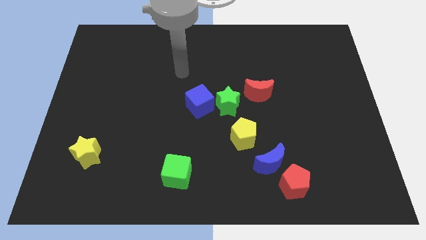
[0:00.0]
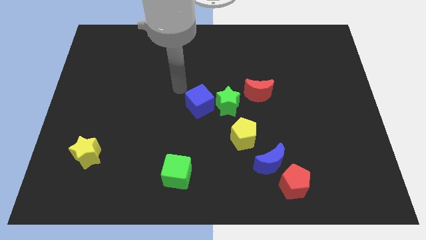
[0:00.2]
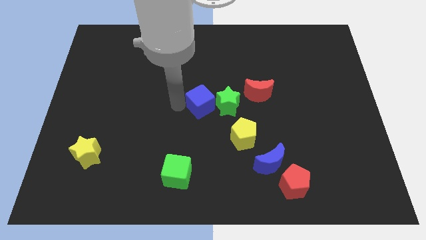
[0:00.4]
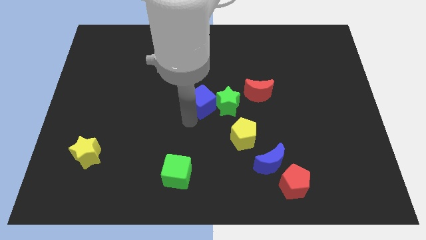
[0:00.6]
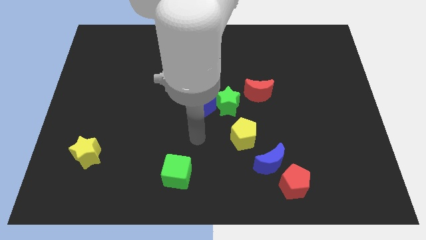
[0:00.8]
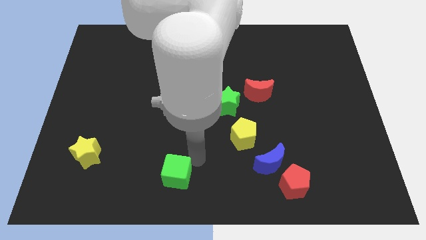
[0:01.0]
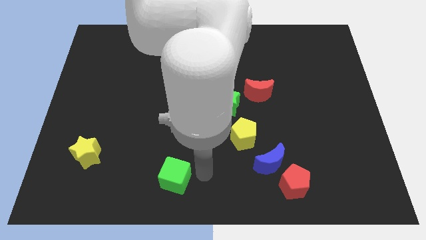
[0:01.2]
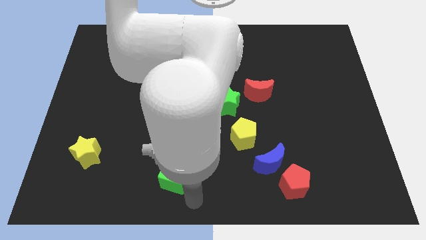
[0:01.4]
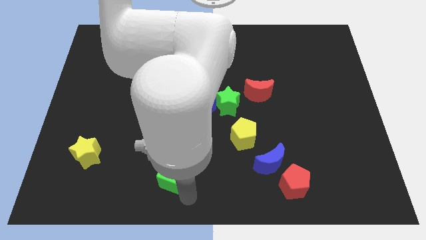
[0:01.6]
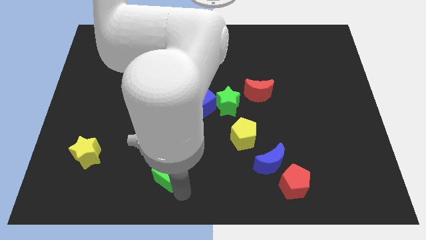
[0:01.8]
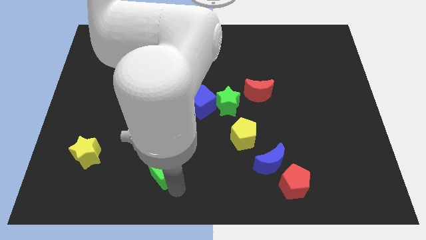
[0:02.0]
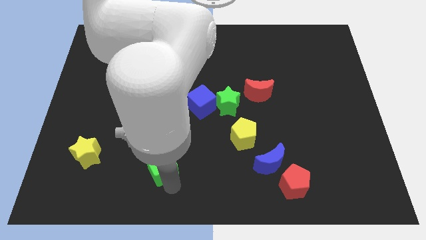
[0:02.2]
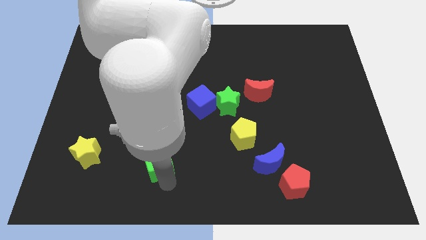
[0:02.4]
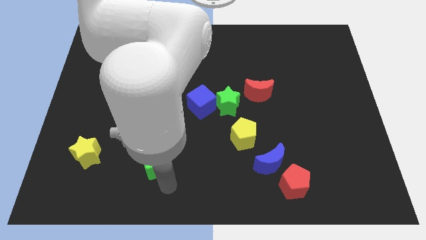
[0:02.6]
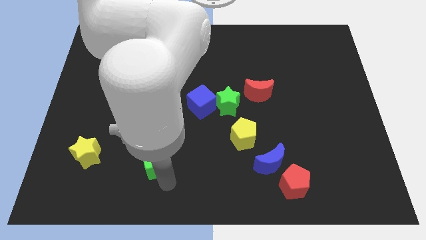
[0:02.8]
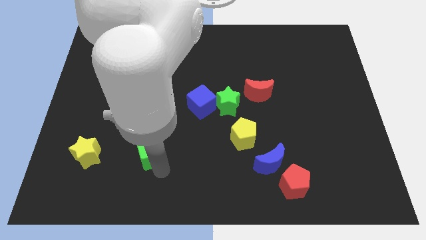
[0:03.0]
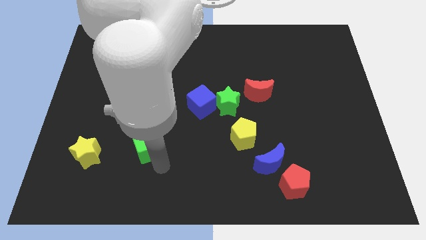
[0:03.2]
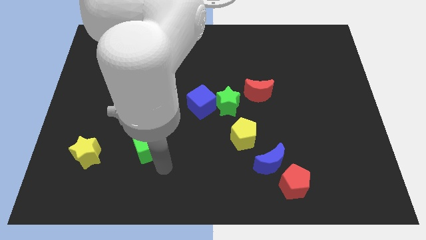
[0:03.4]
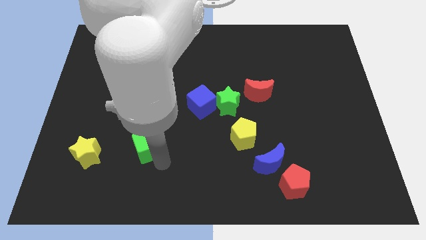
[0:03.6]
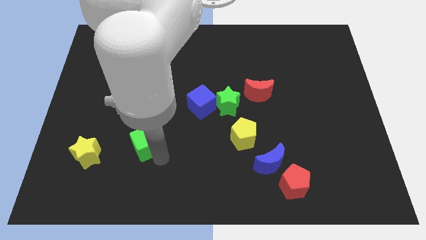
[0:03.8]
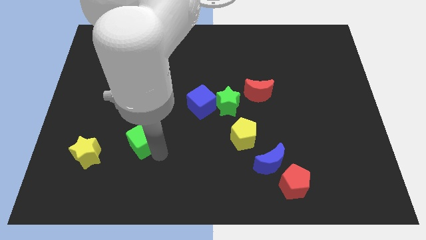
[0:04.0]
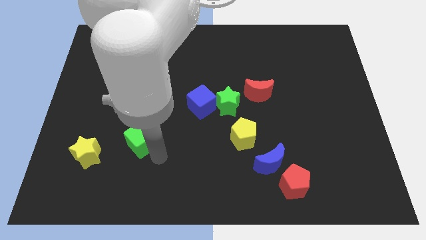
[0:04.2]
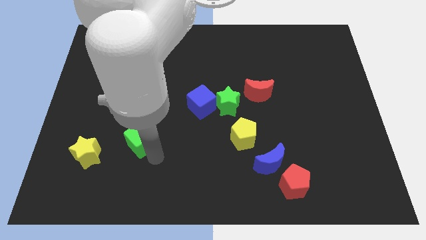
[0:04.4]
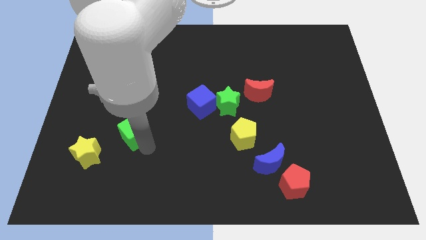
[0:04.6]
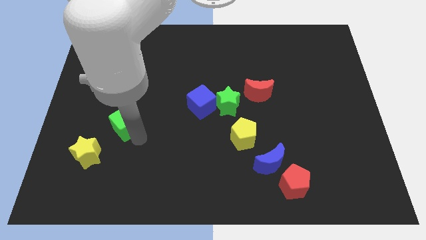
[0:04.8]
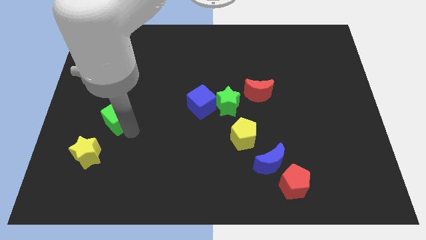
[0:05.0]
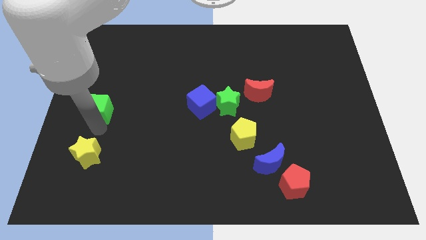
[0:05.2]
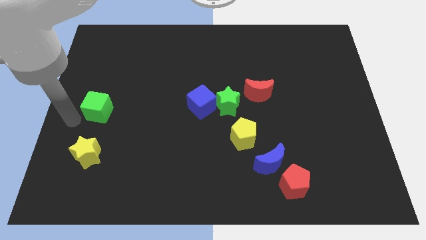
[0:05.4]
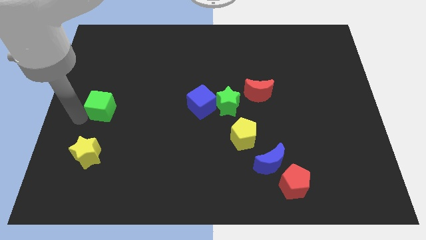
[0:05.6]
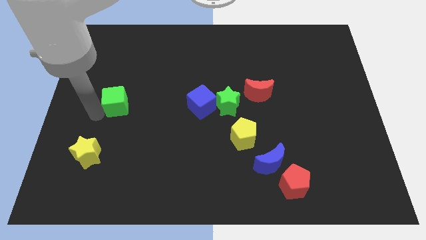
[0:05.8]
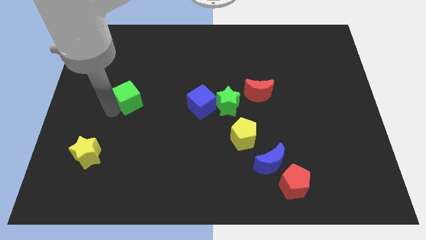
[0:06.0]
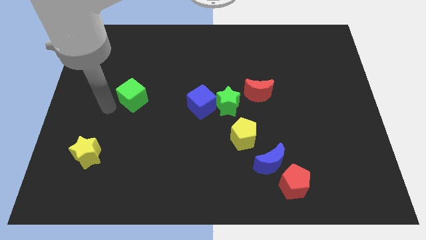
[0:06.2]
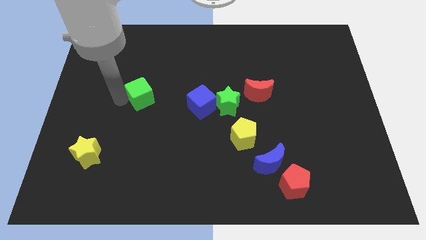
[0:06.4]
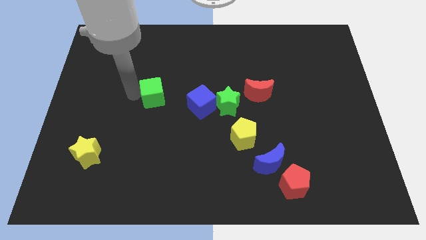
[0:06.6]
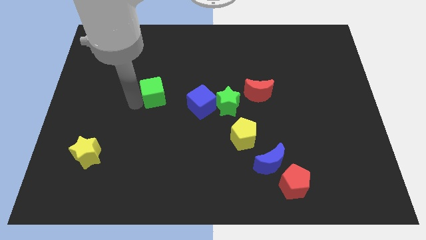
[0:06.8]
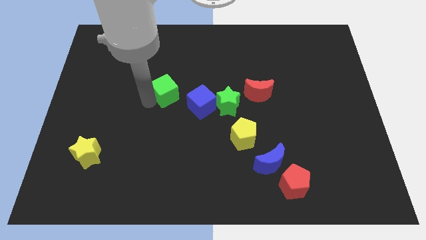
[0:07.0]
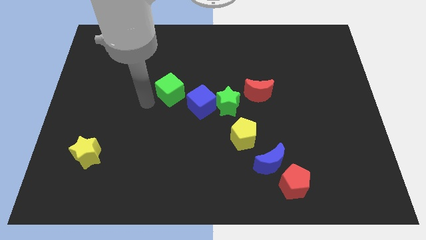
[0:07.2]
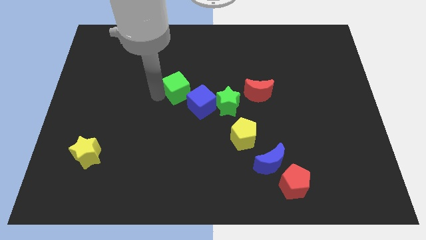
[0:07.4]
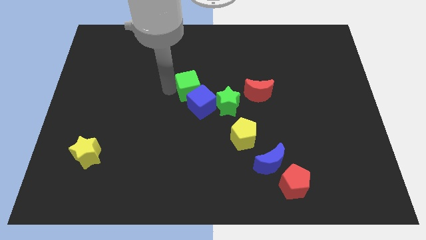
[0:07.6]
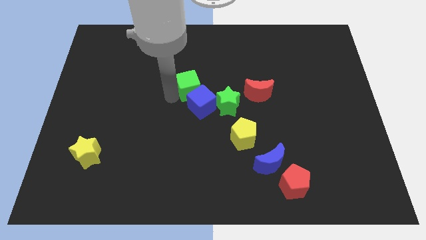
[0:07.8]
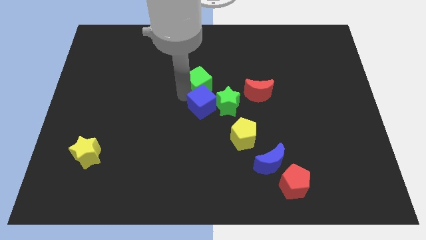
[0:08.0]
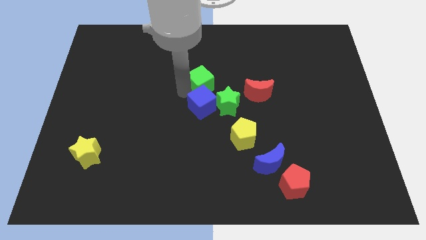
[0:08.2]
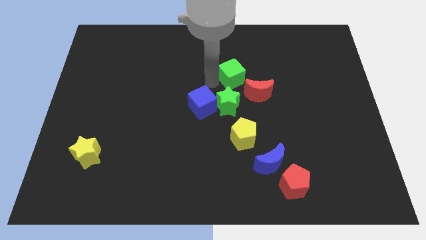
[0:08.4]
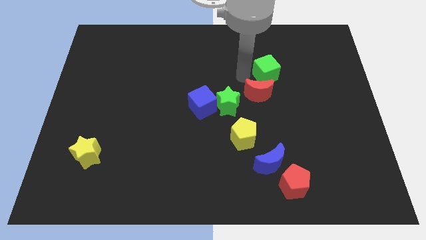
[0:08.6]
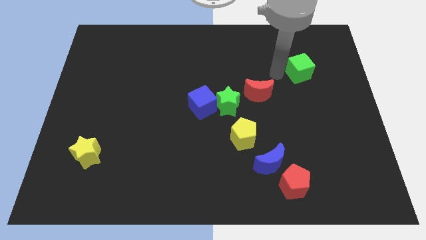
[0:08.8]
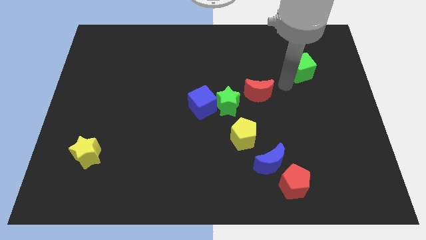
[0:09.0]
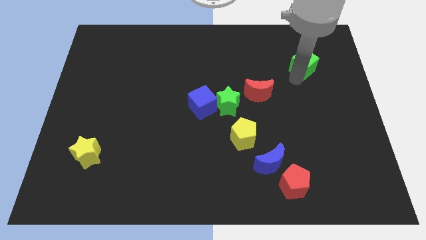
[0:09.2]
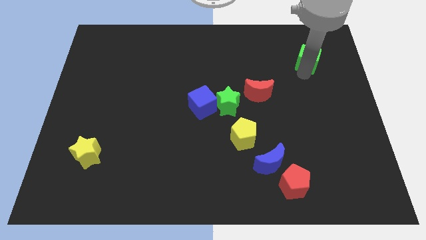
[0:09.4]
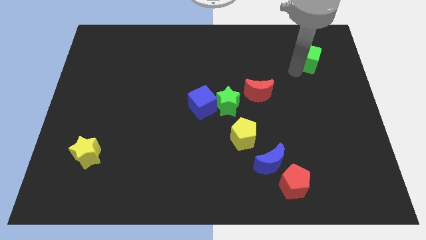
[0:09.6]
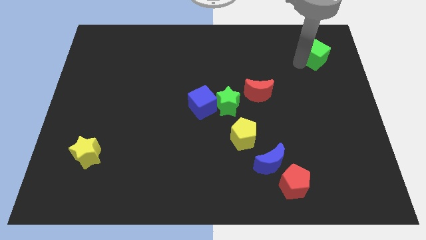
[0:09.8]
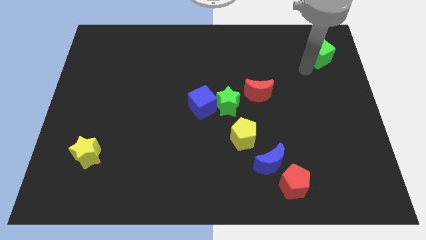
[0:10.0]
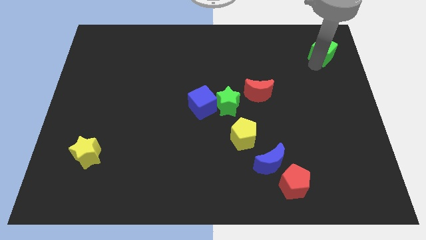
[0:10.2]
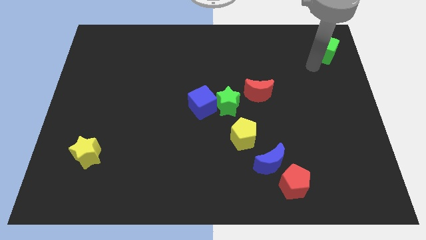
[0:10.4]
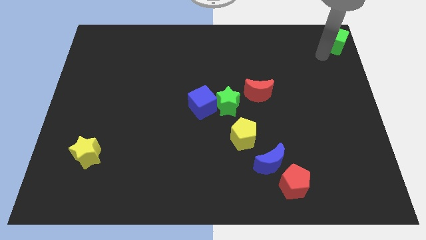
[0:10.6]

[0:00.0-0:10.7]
put the green cube to the upper right corner

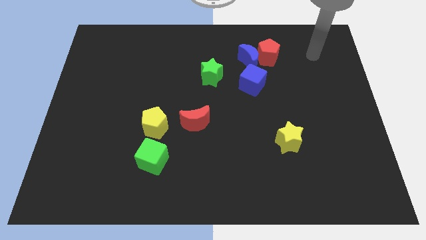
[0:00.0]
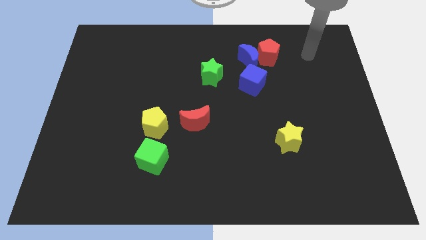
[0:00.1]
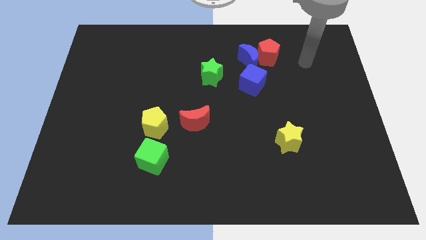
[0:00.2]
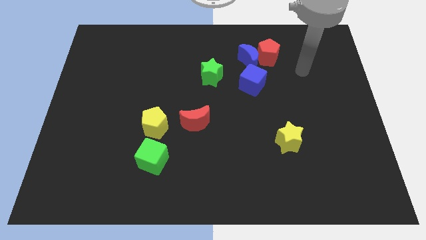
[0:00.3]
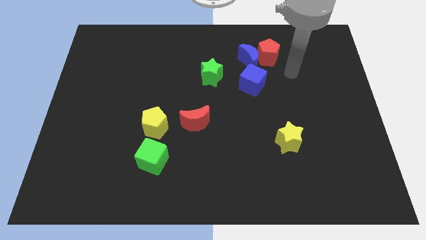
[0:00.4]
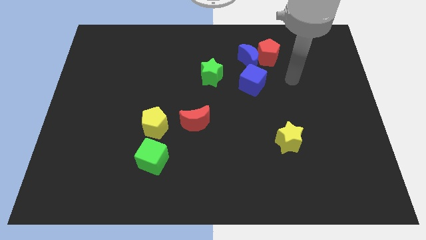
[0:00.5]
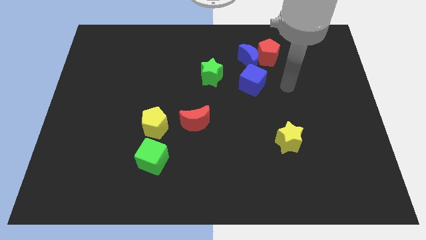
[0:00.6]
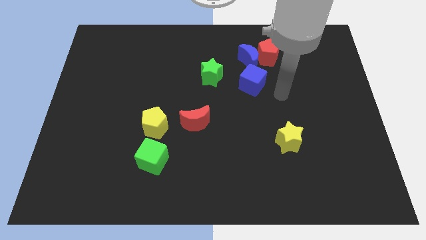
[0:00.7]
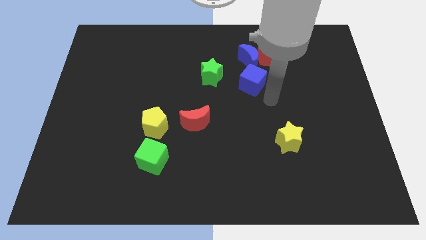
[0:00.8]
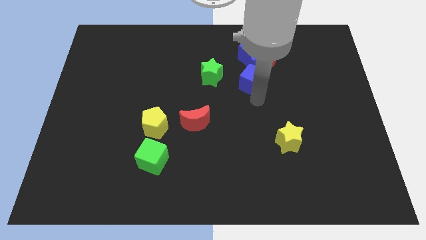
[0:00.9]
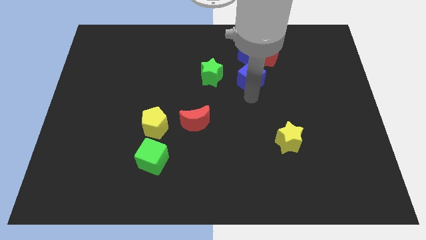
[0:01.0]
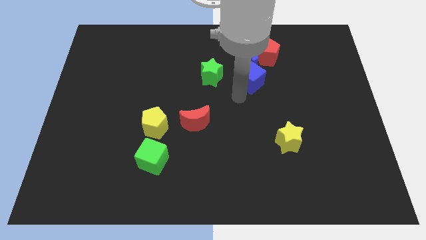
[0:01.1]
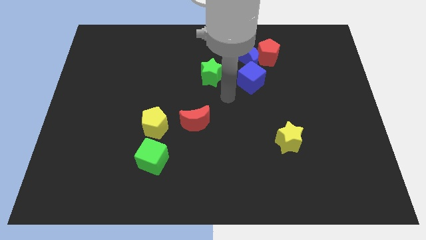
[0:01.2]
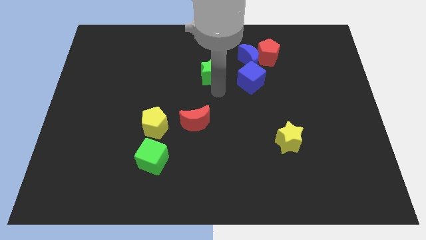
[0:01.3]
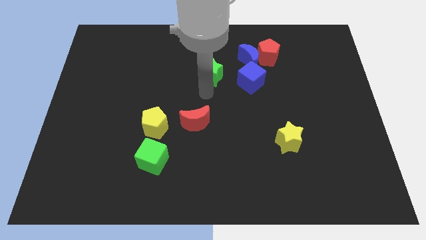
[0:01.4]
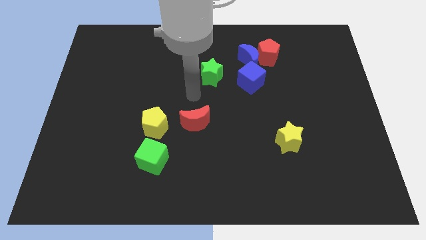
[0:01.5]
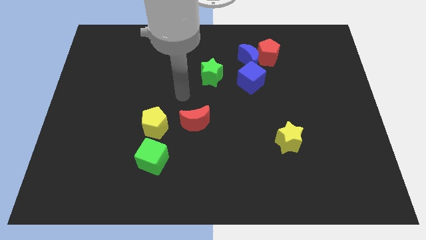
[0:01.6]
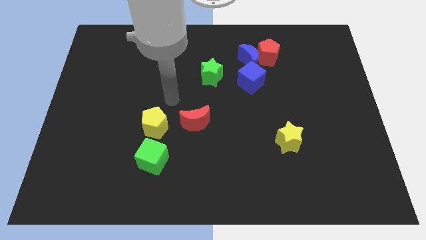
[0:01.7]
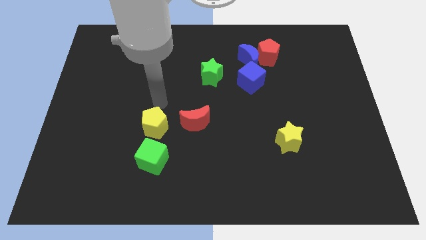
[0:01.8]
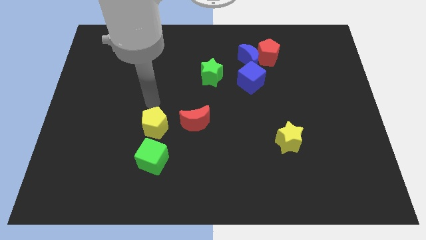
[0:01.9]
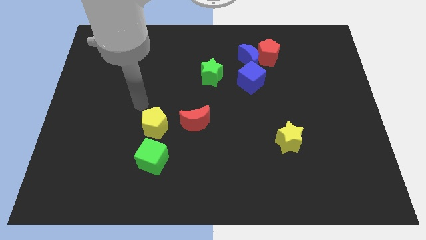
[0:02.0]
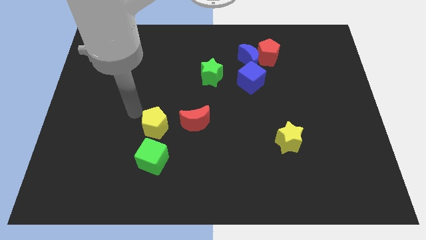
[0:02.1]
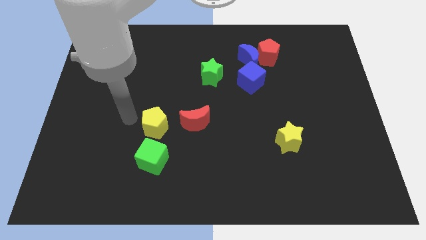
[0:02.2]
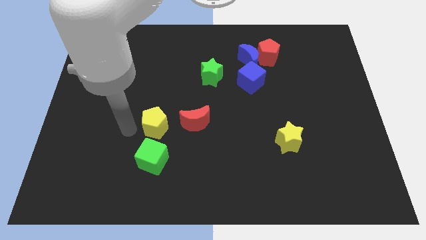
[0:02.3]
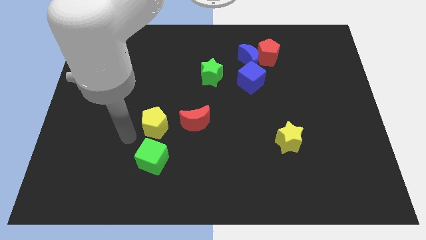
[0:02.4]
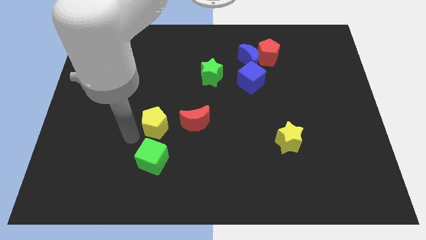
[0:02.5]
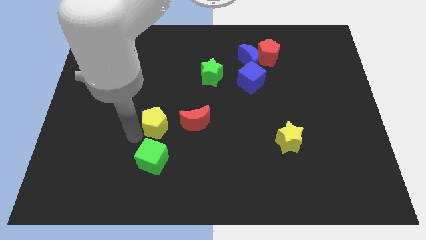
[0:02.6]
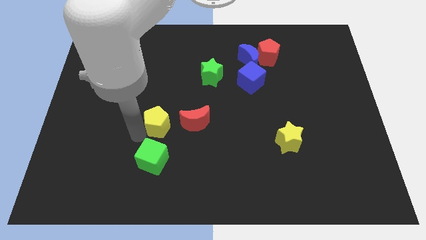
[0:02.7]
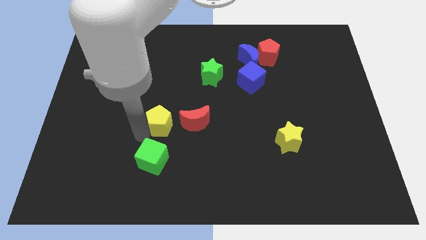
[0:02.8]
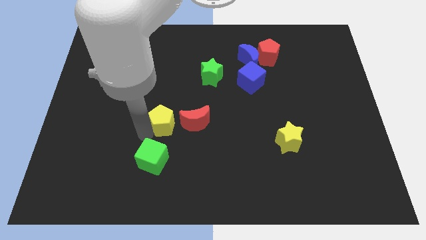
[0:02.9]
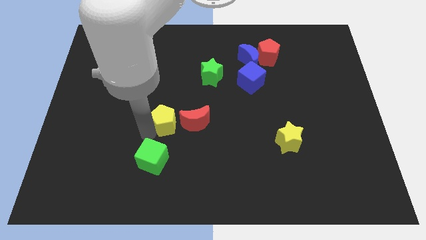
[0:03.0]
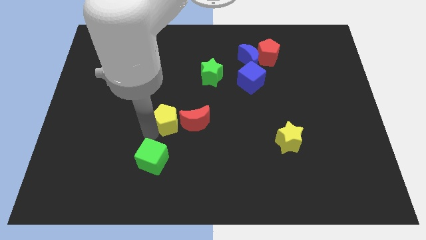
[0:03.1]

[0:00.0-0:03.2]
put the yellow pentagon to the center of the board
